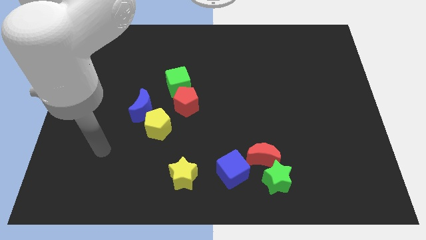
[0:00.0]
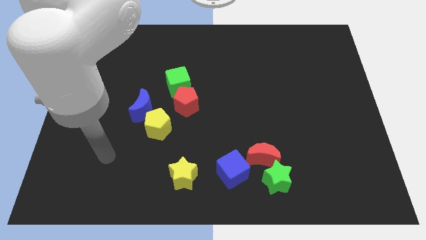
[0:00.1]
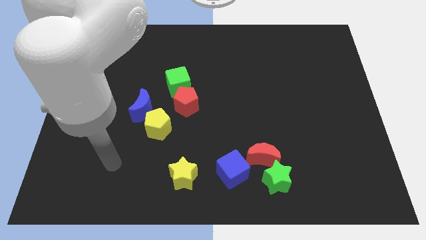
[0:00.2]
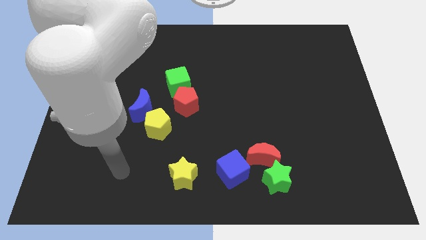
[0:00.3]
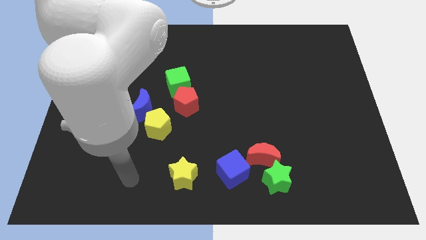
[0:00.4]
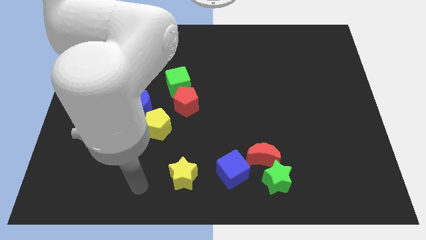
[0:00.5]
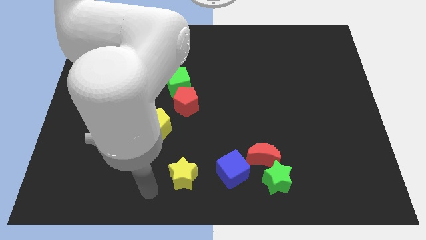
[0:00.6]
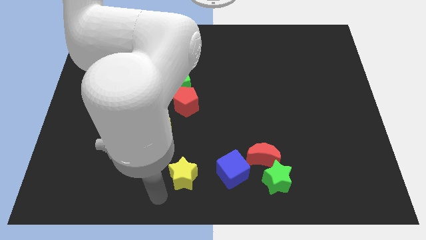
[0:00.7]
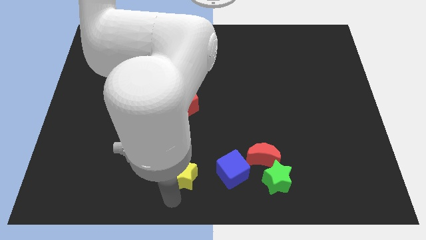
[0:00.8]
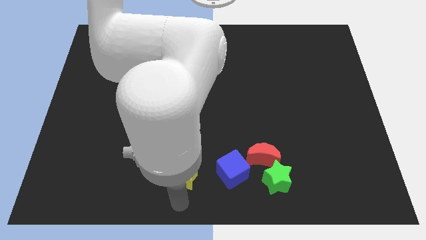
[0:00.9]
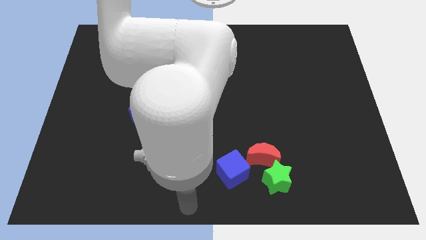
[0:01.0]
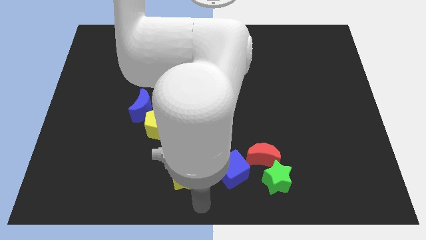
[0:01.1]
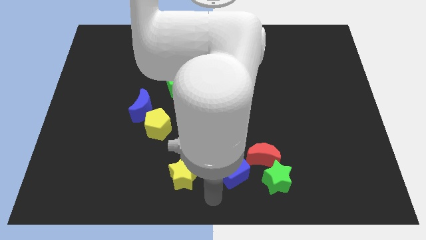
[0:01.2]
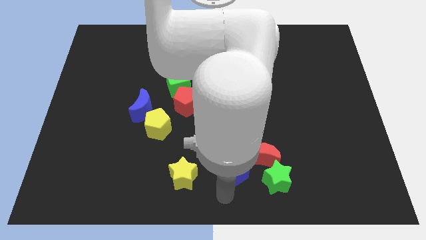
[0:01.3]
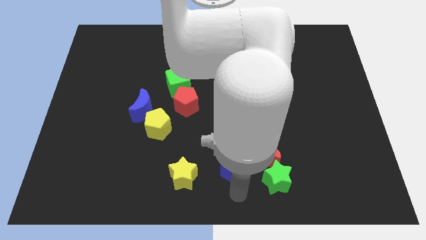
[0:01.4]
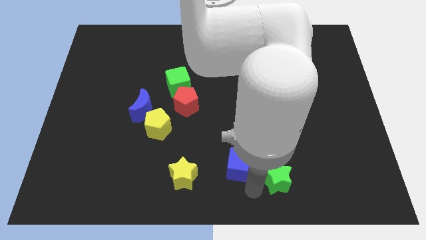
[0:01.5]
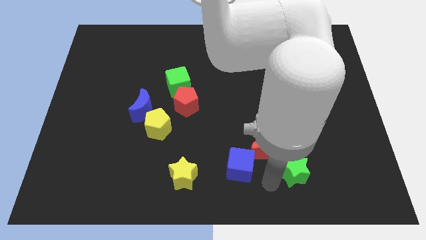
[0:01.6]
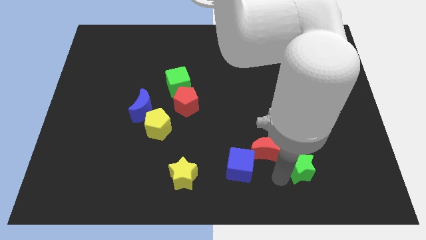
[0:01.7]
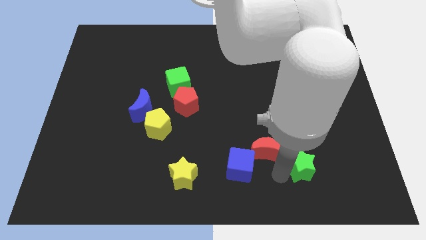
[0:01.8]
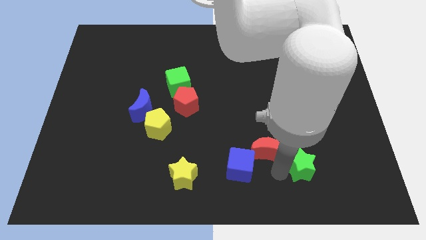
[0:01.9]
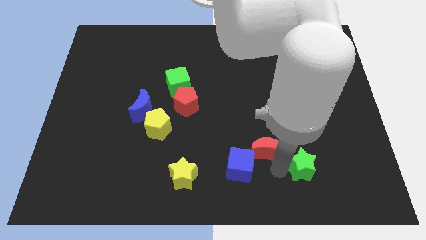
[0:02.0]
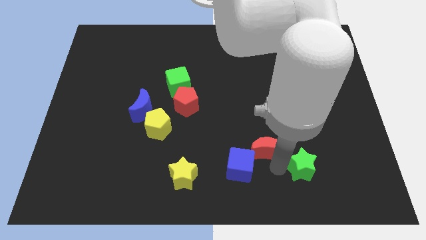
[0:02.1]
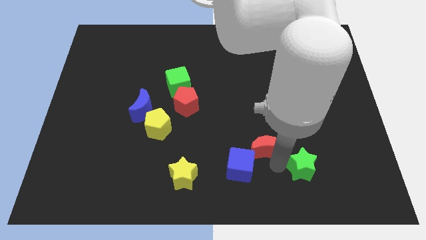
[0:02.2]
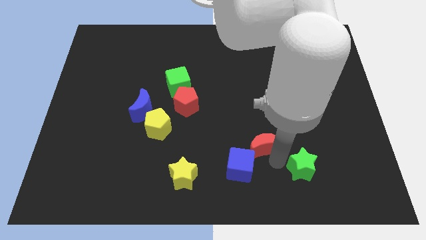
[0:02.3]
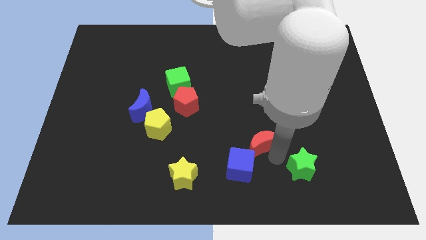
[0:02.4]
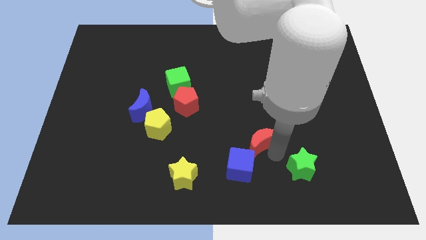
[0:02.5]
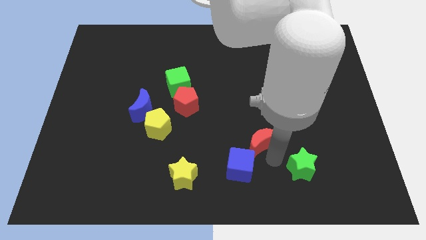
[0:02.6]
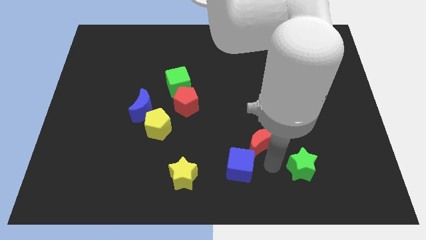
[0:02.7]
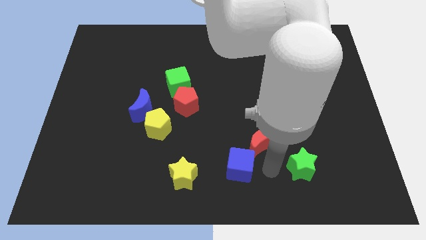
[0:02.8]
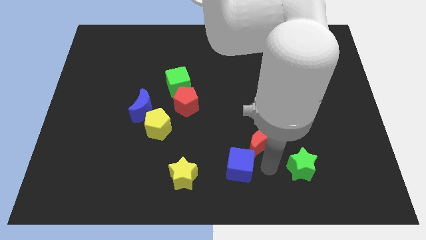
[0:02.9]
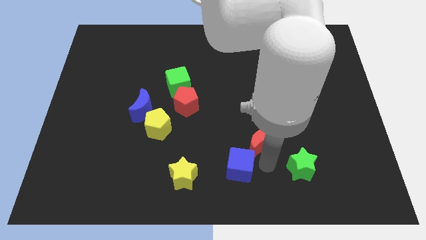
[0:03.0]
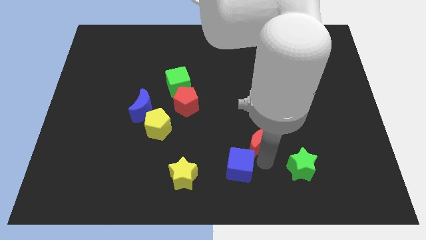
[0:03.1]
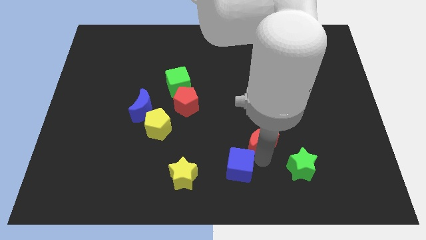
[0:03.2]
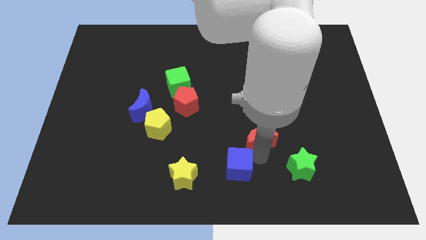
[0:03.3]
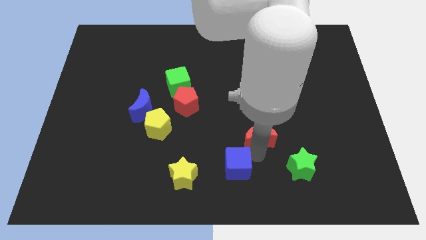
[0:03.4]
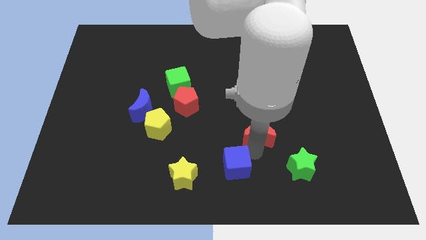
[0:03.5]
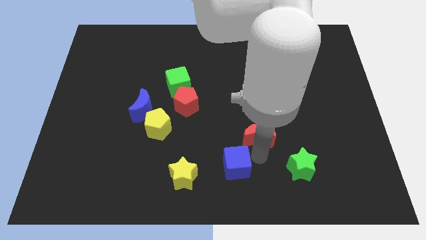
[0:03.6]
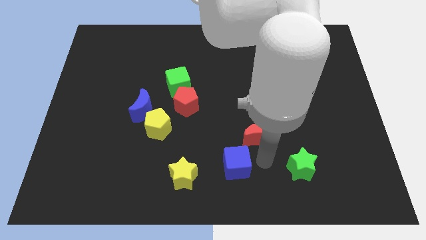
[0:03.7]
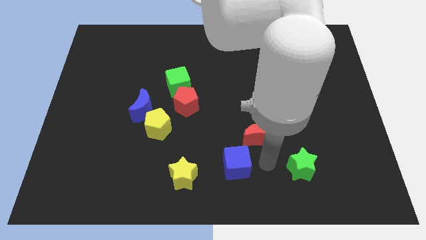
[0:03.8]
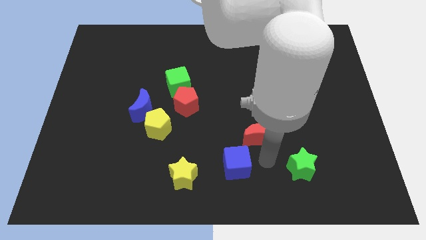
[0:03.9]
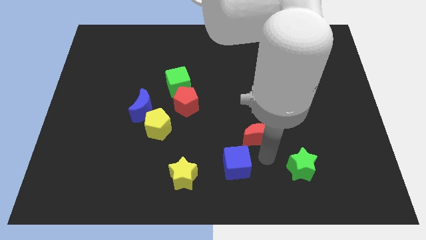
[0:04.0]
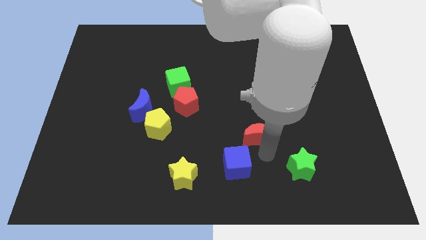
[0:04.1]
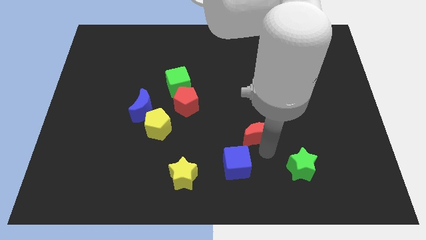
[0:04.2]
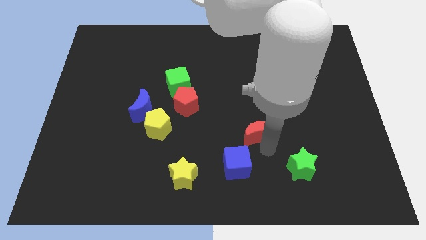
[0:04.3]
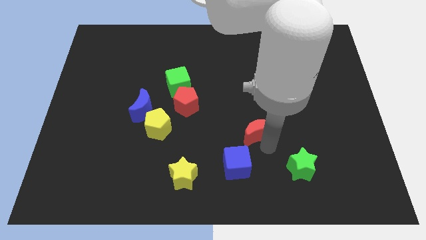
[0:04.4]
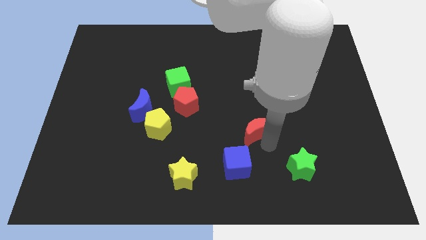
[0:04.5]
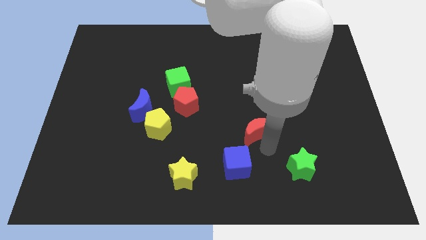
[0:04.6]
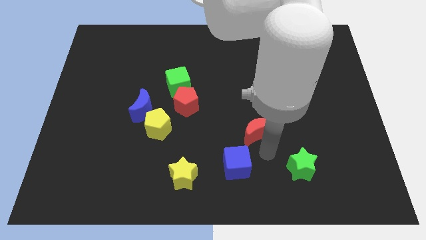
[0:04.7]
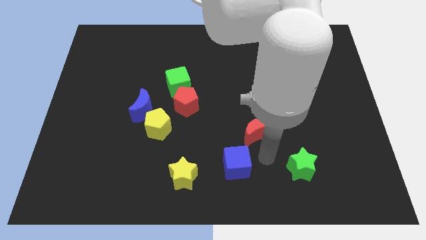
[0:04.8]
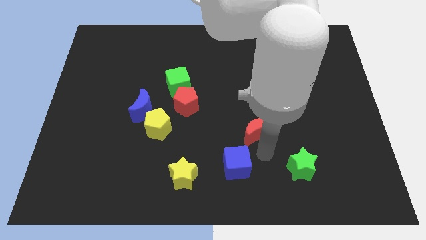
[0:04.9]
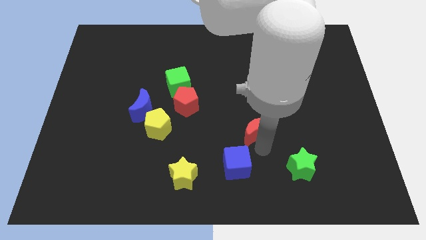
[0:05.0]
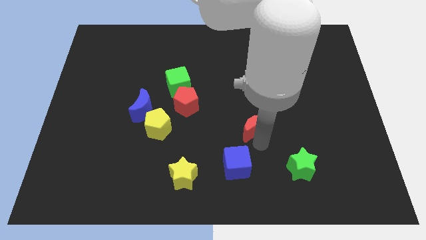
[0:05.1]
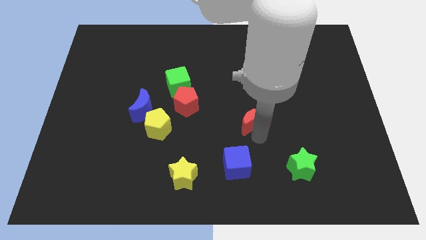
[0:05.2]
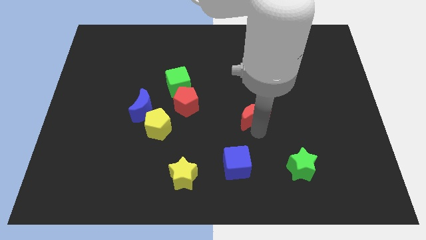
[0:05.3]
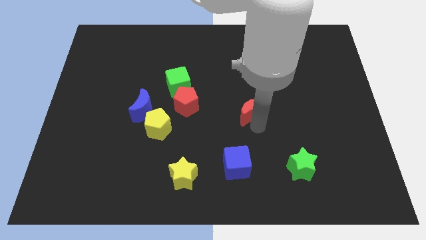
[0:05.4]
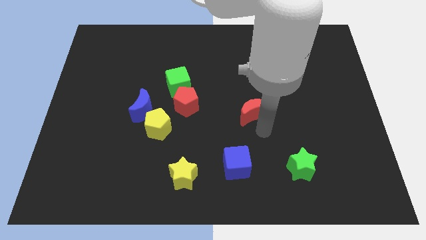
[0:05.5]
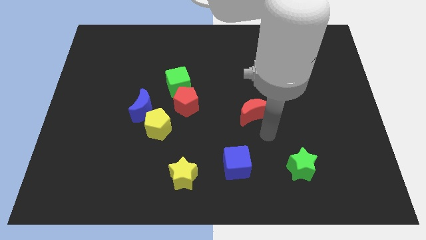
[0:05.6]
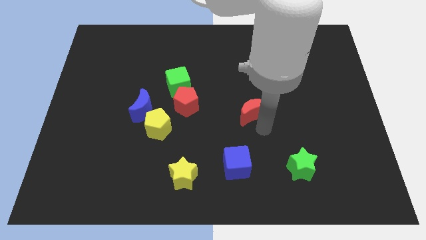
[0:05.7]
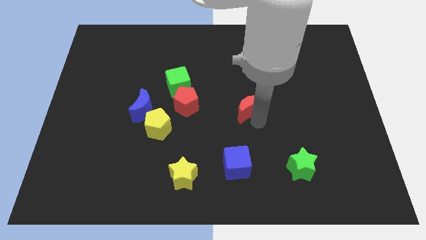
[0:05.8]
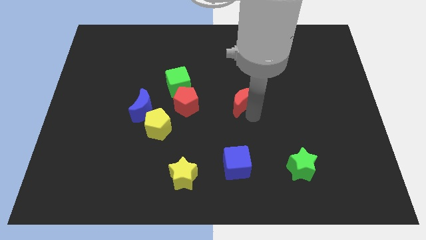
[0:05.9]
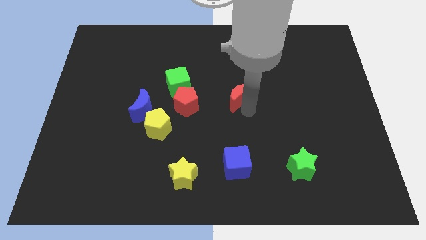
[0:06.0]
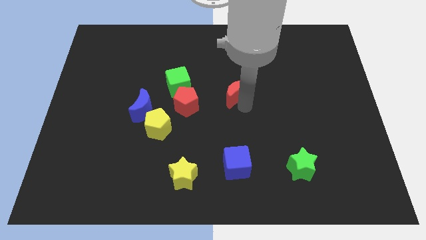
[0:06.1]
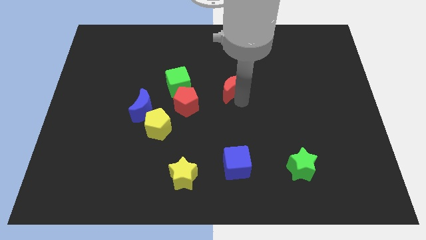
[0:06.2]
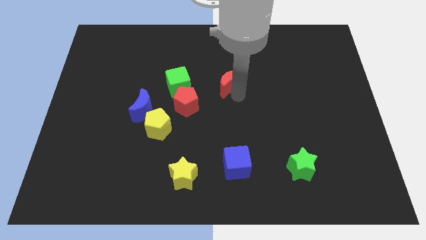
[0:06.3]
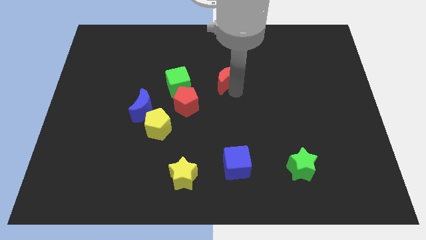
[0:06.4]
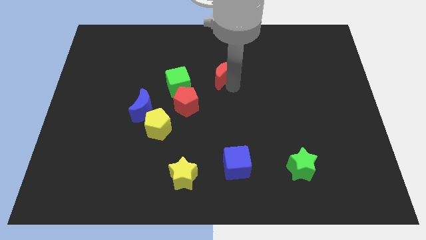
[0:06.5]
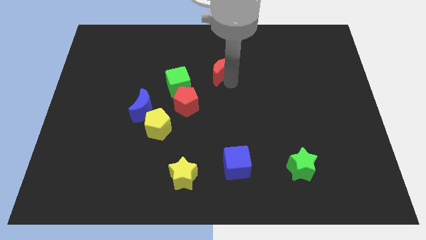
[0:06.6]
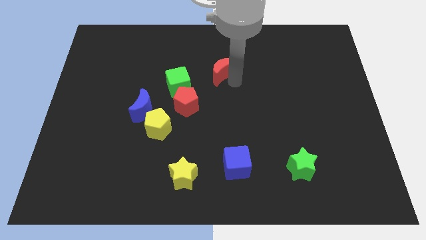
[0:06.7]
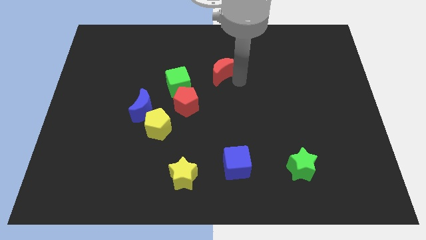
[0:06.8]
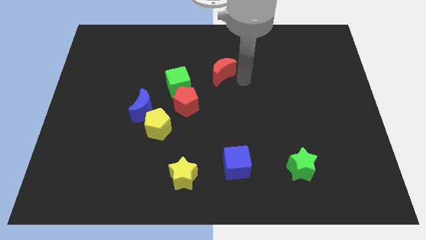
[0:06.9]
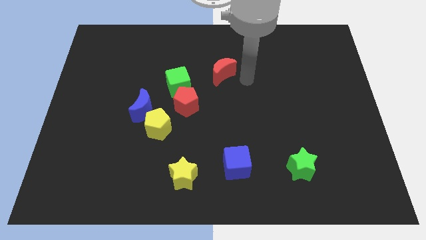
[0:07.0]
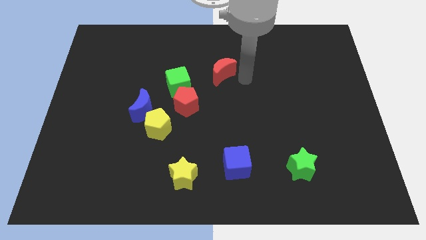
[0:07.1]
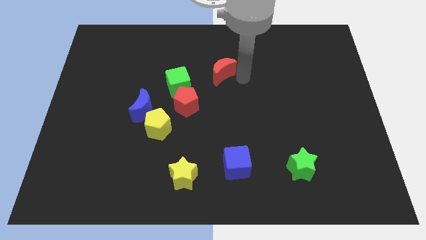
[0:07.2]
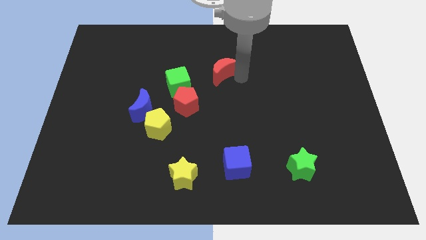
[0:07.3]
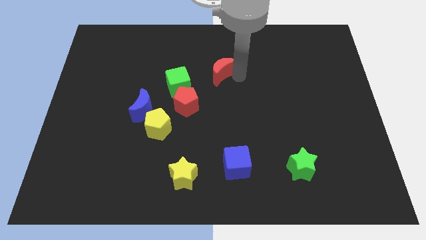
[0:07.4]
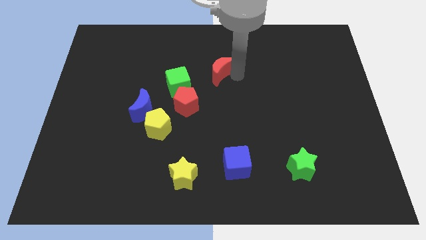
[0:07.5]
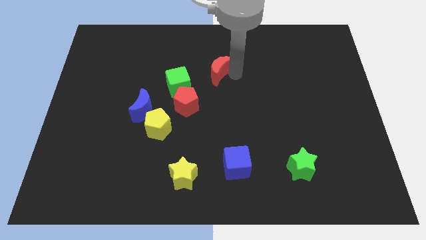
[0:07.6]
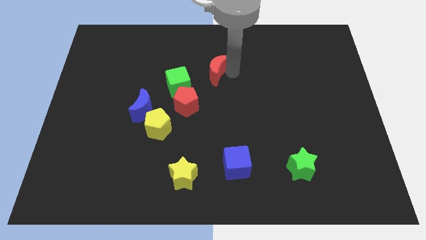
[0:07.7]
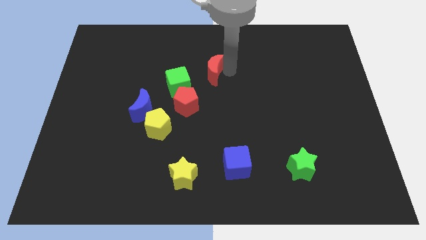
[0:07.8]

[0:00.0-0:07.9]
slide the red moon diagonally upwards and to the left
